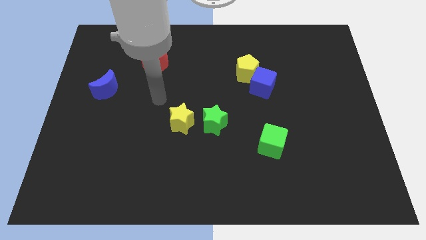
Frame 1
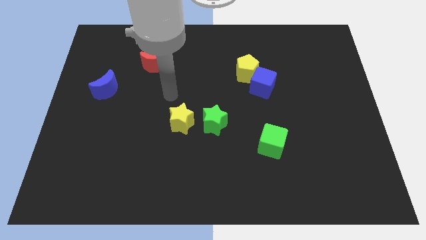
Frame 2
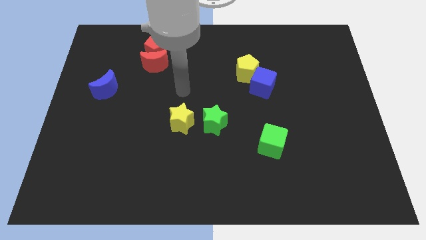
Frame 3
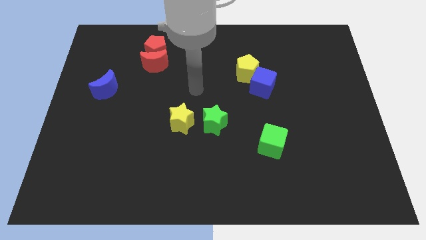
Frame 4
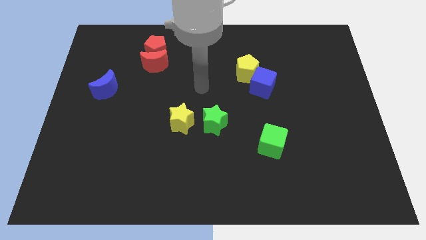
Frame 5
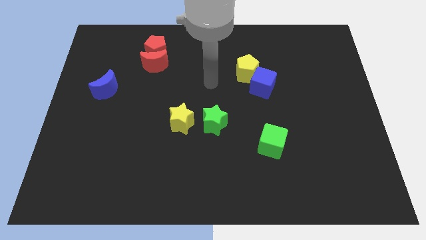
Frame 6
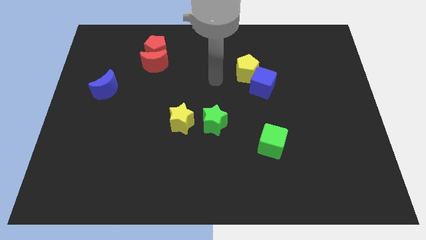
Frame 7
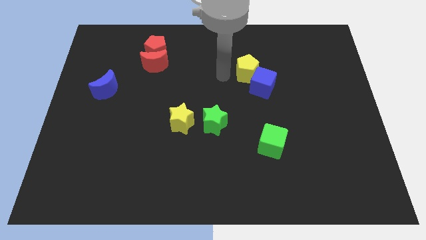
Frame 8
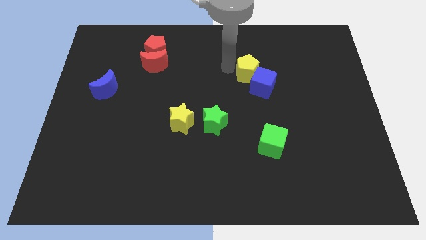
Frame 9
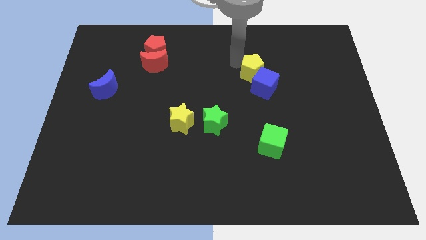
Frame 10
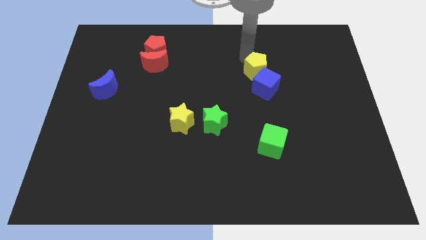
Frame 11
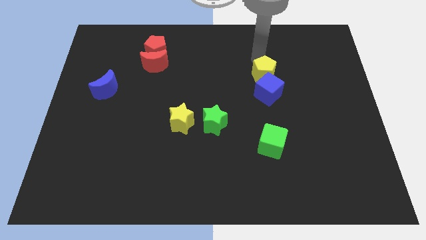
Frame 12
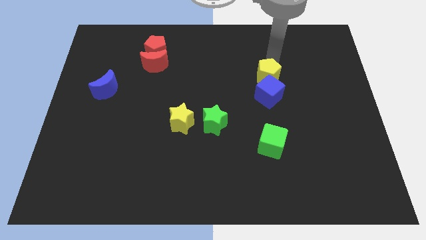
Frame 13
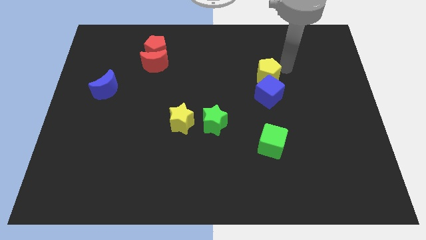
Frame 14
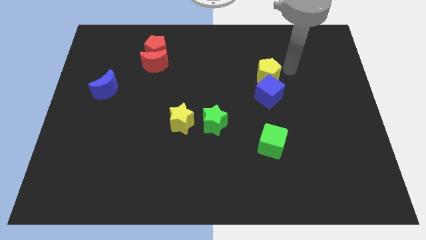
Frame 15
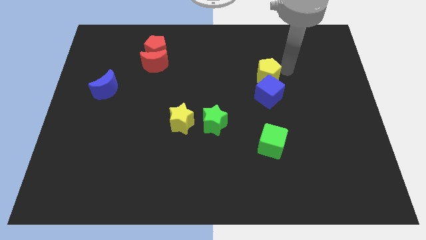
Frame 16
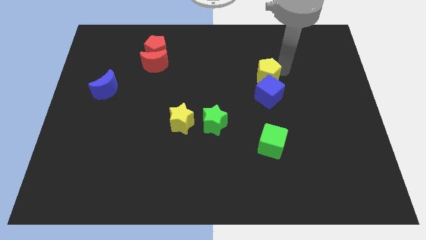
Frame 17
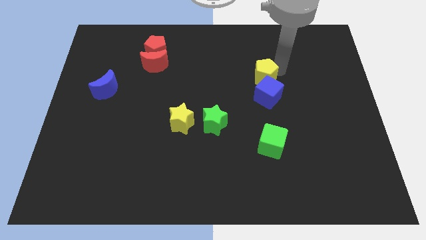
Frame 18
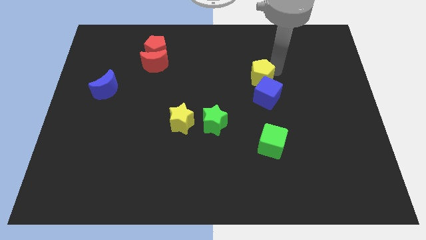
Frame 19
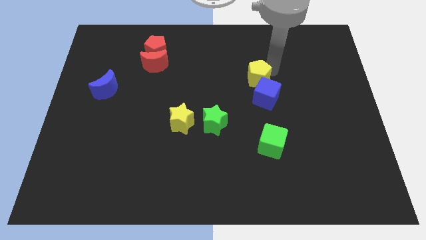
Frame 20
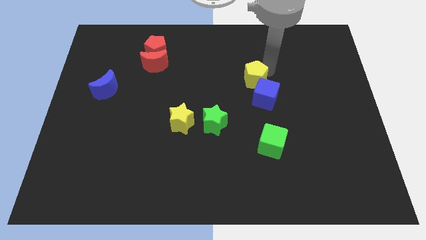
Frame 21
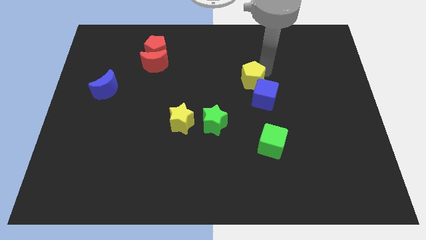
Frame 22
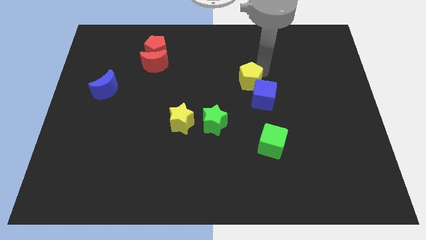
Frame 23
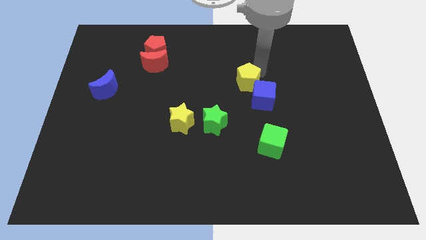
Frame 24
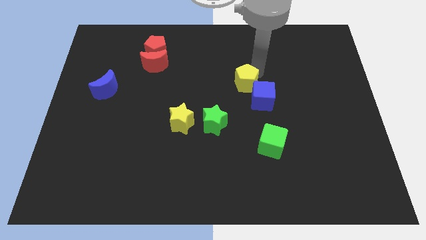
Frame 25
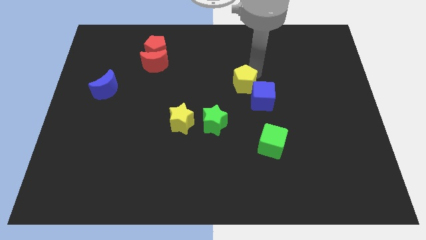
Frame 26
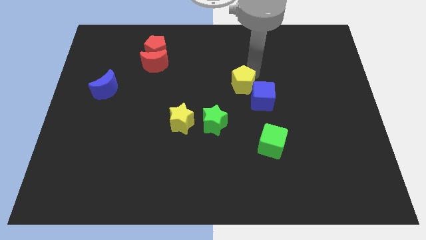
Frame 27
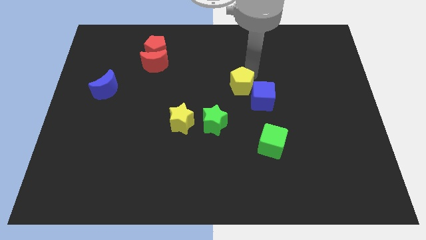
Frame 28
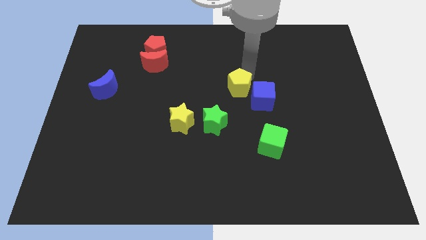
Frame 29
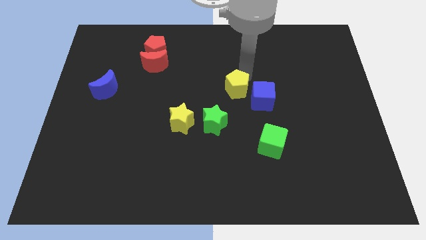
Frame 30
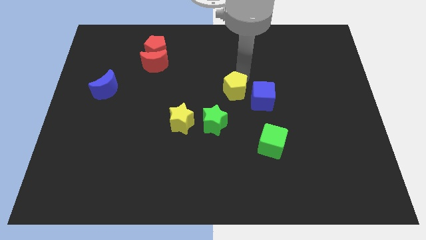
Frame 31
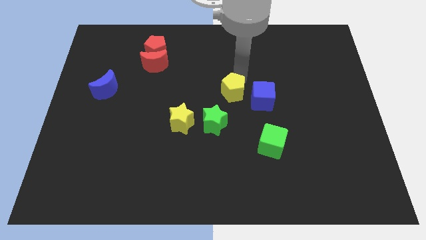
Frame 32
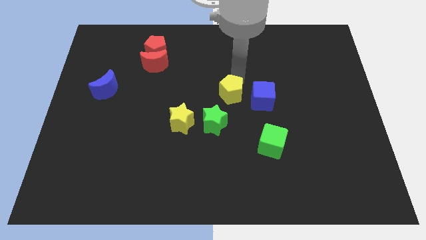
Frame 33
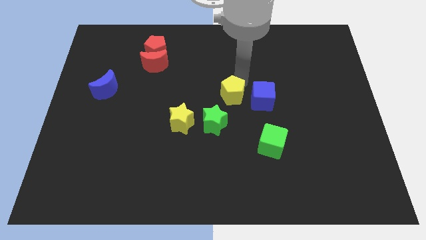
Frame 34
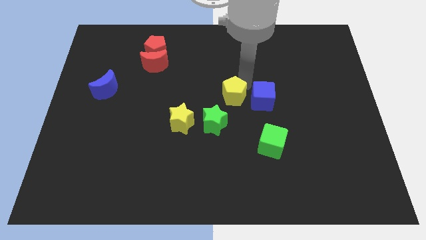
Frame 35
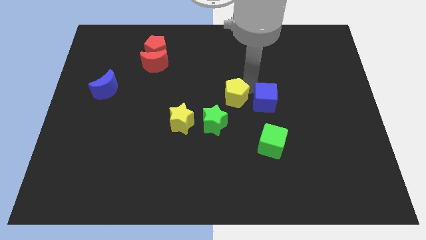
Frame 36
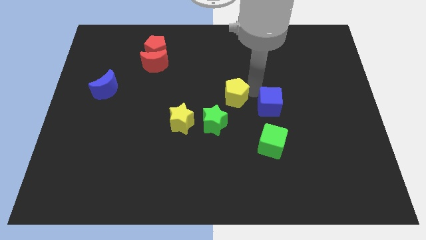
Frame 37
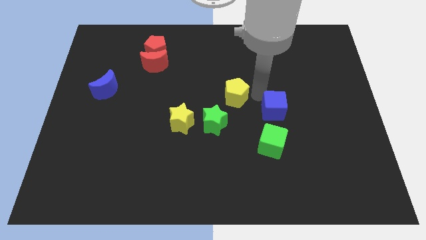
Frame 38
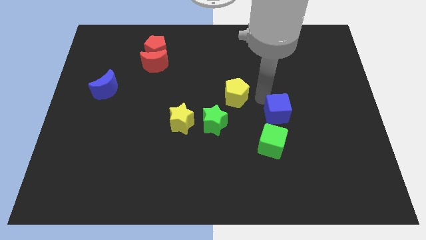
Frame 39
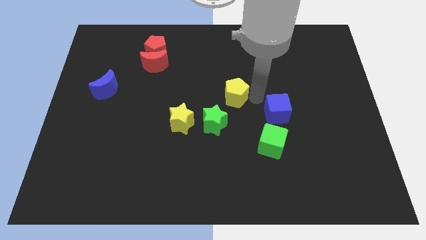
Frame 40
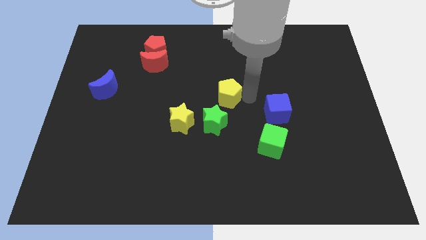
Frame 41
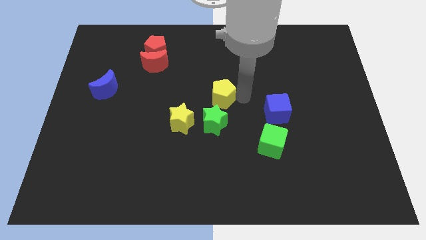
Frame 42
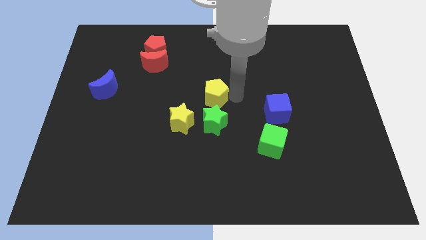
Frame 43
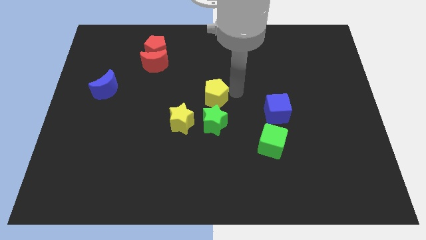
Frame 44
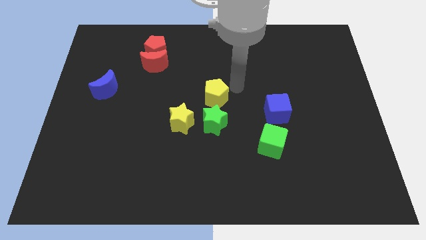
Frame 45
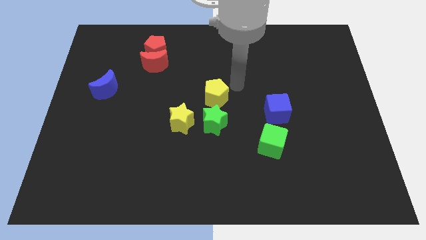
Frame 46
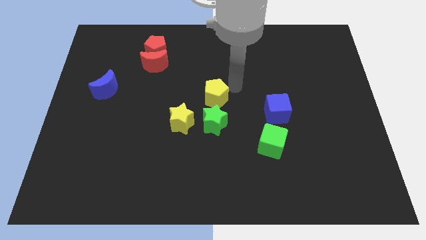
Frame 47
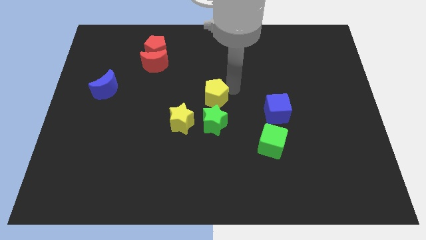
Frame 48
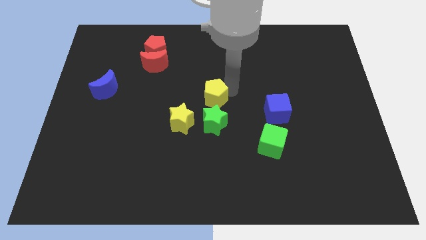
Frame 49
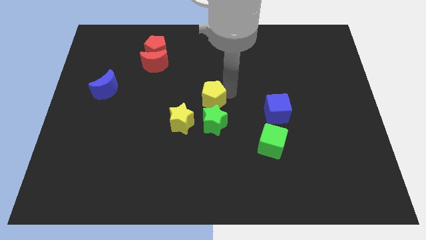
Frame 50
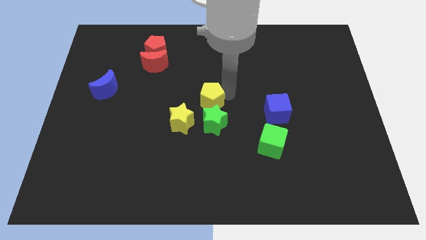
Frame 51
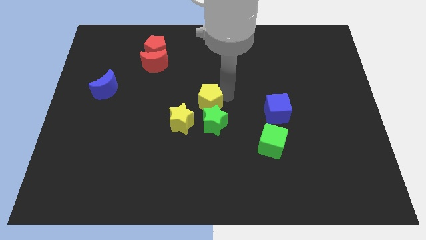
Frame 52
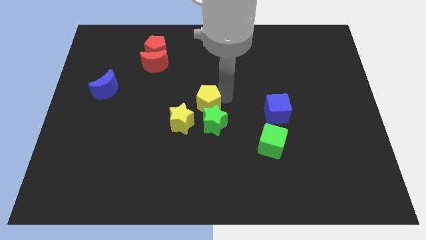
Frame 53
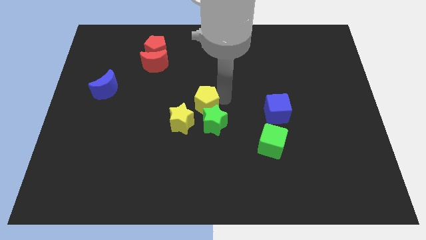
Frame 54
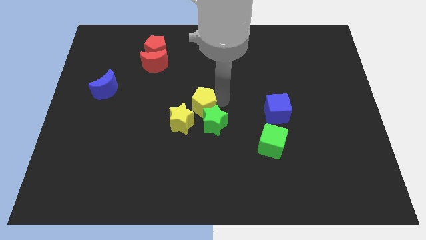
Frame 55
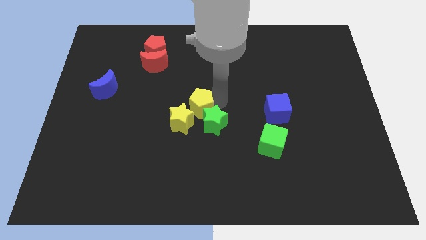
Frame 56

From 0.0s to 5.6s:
push the yellow pentagon close to the yellow star

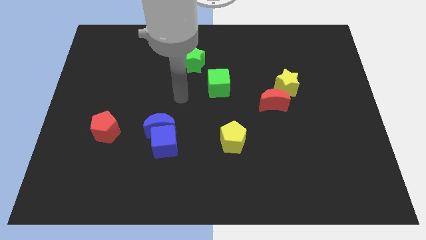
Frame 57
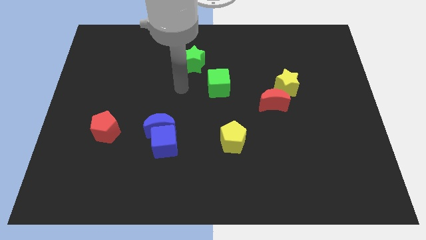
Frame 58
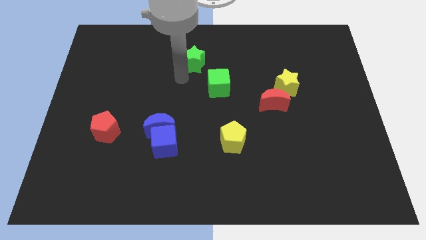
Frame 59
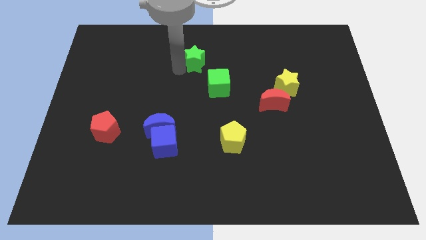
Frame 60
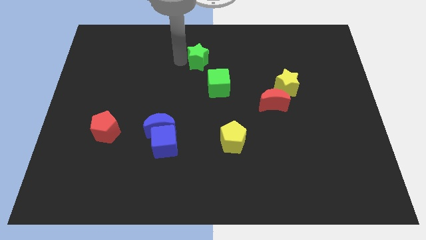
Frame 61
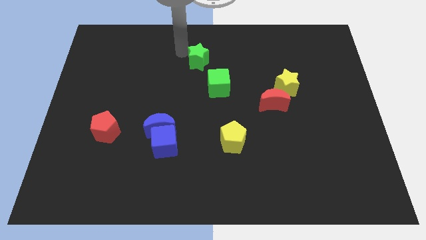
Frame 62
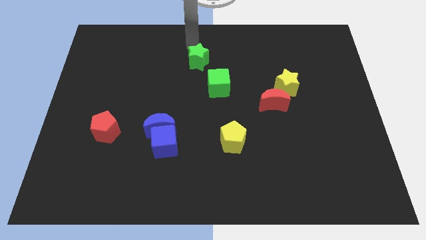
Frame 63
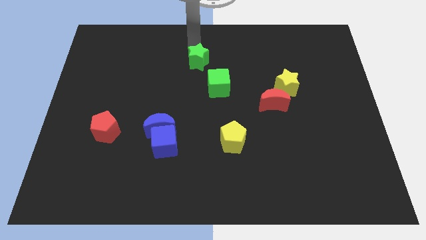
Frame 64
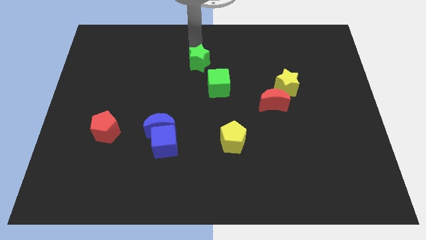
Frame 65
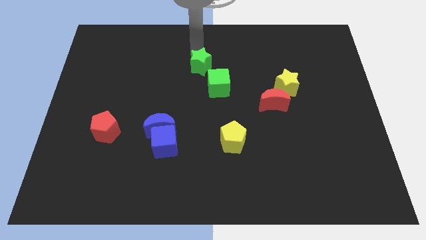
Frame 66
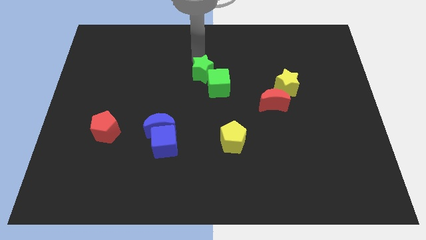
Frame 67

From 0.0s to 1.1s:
put the green star to the green cube
